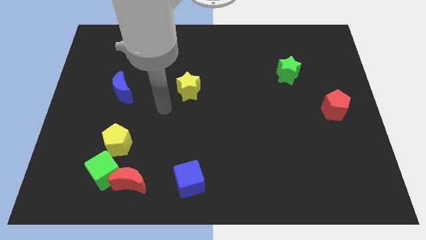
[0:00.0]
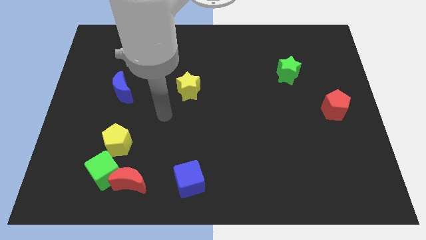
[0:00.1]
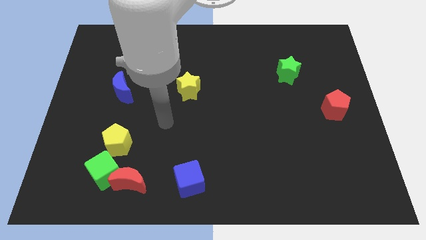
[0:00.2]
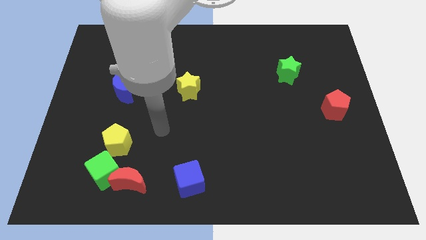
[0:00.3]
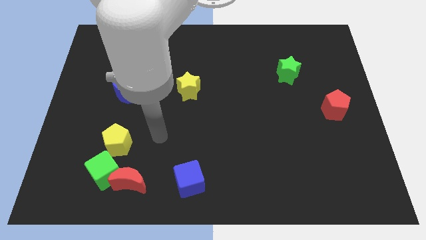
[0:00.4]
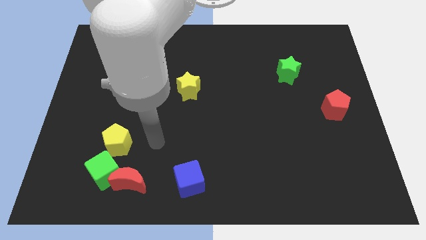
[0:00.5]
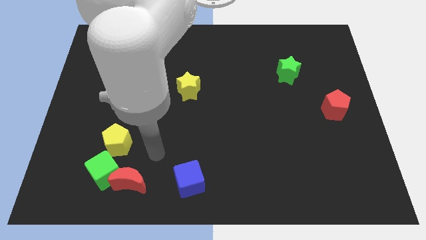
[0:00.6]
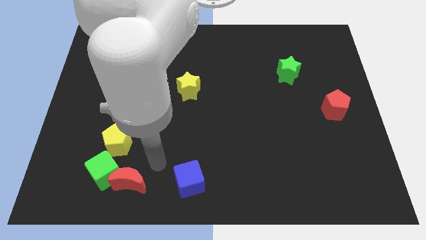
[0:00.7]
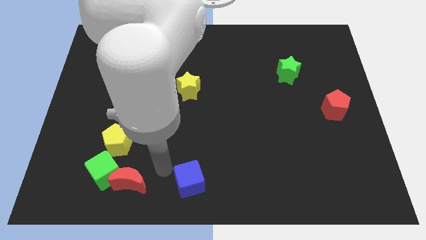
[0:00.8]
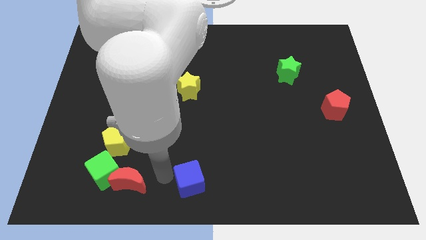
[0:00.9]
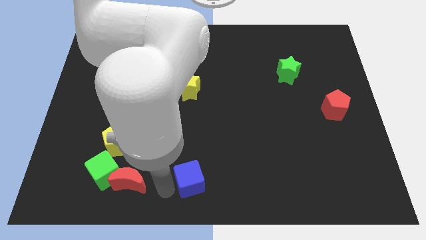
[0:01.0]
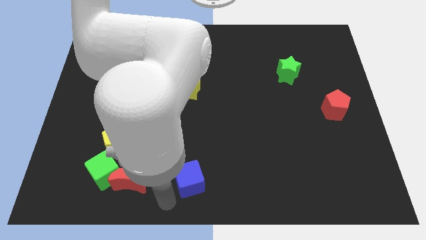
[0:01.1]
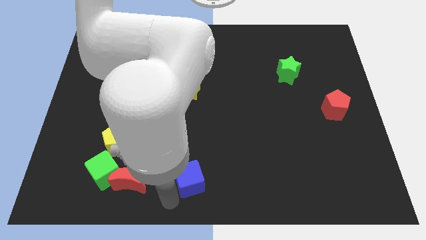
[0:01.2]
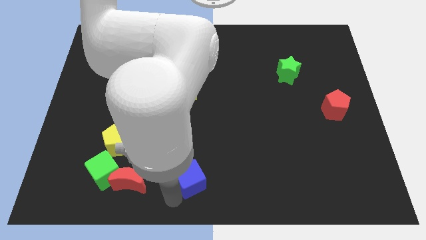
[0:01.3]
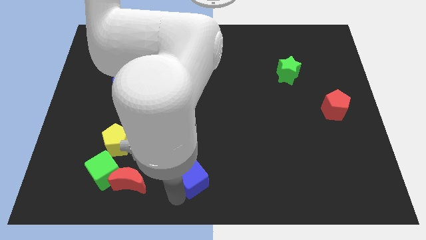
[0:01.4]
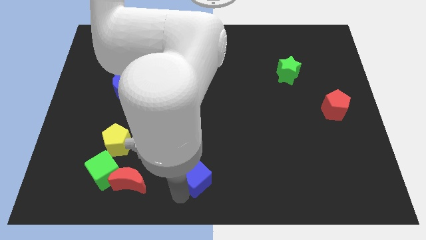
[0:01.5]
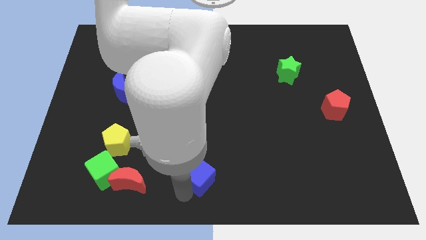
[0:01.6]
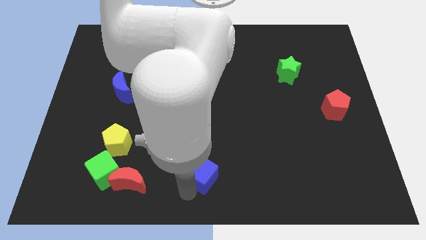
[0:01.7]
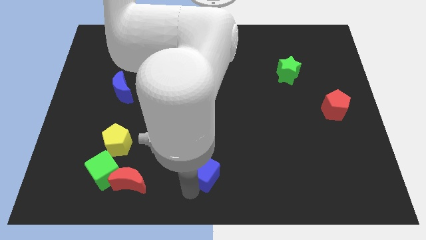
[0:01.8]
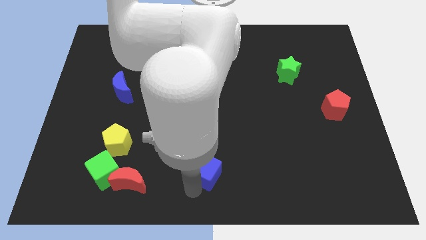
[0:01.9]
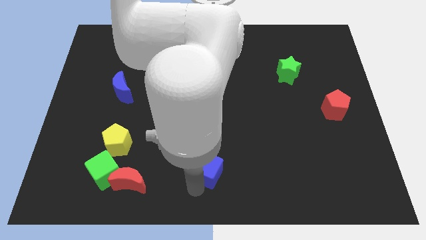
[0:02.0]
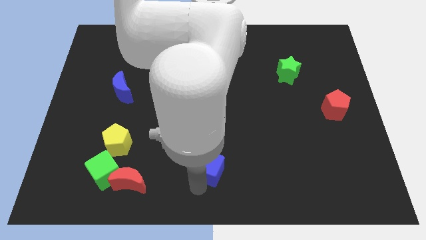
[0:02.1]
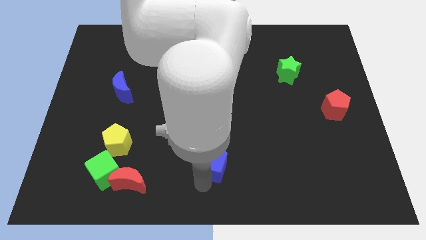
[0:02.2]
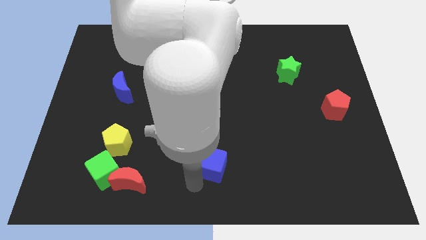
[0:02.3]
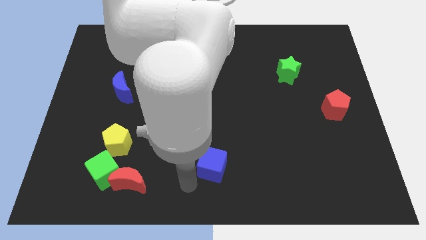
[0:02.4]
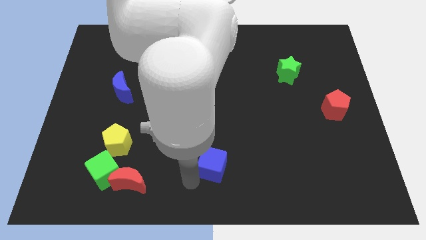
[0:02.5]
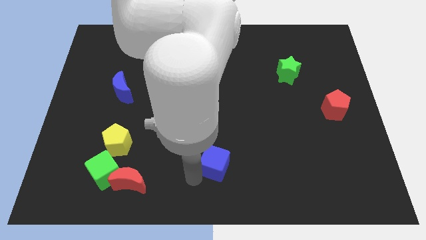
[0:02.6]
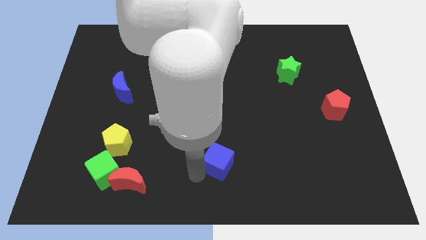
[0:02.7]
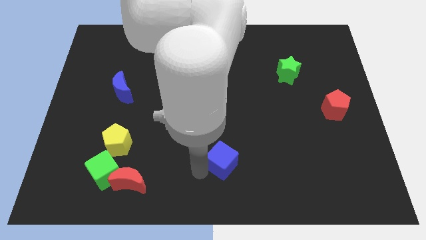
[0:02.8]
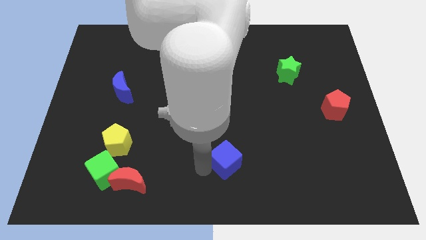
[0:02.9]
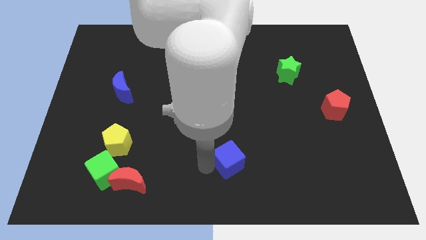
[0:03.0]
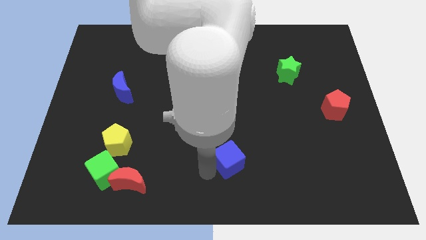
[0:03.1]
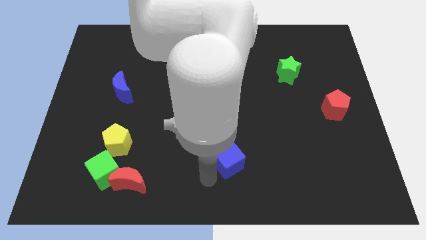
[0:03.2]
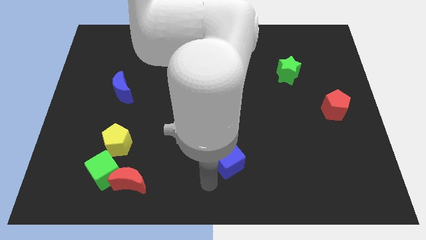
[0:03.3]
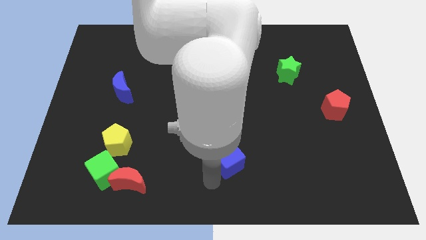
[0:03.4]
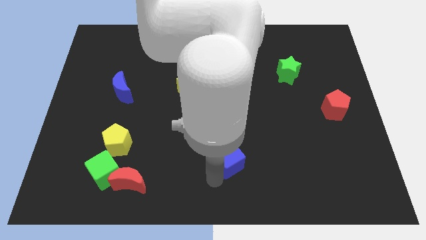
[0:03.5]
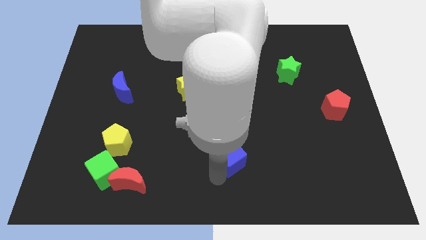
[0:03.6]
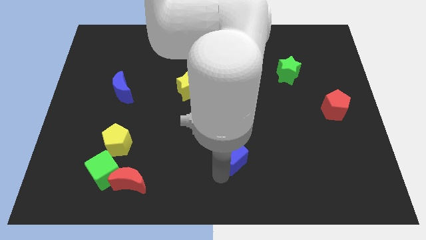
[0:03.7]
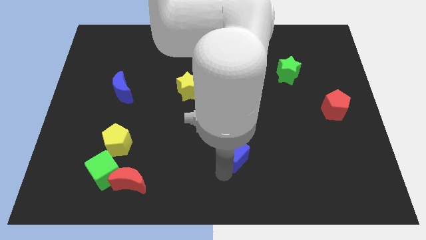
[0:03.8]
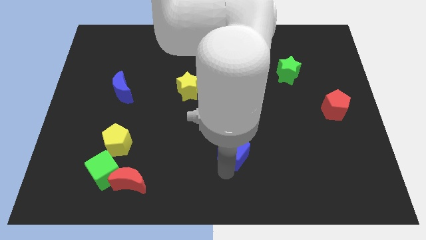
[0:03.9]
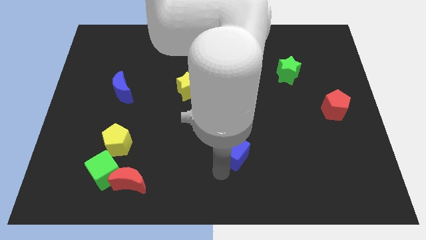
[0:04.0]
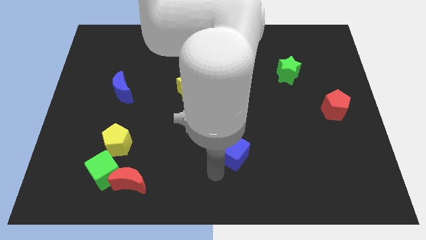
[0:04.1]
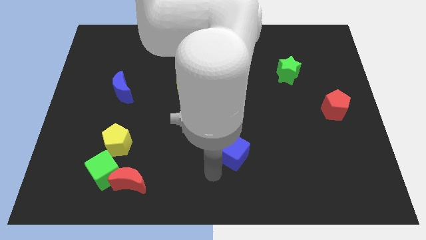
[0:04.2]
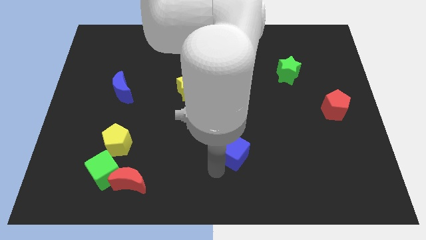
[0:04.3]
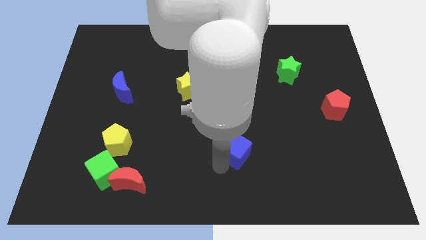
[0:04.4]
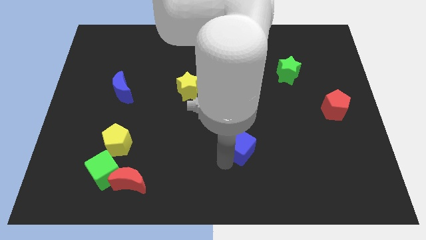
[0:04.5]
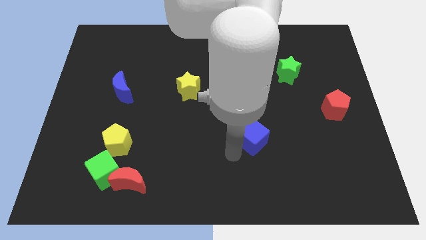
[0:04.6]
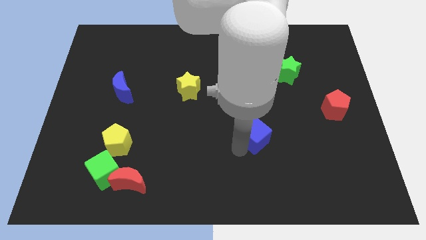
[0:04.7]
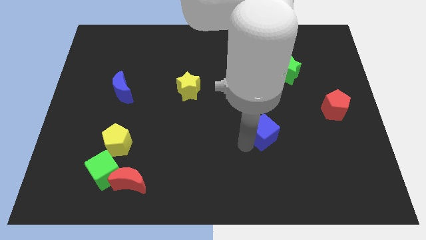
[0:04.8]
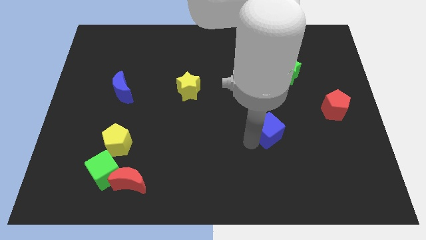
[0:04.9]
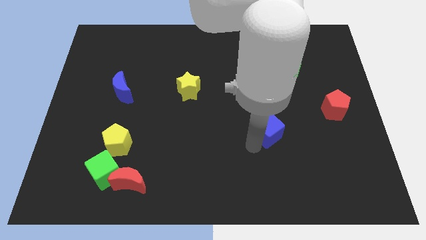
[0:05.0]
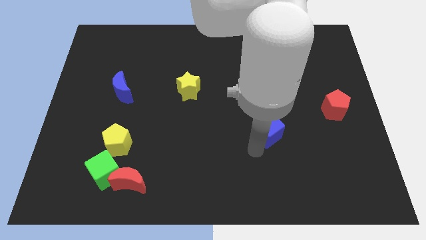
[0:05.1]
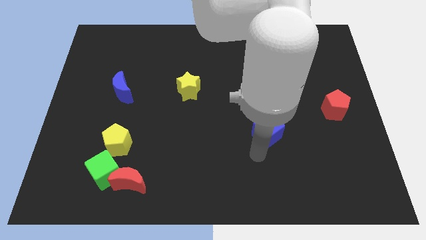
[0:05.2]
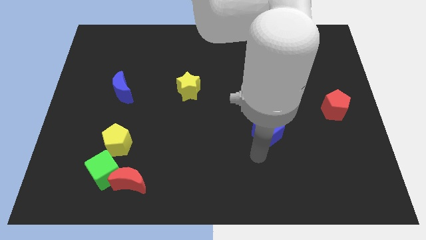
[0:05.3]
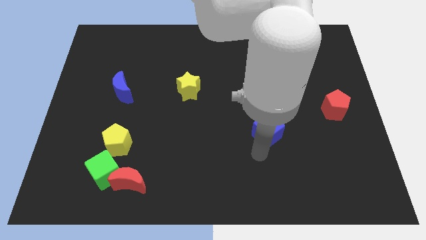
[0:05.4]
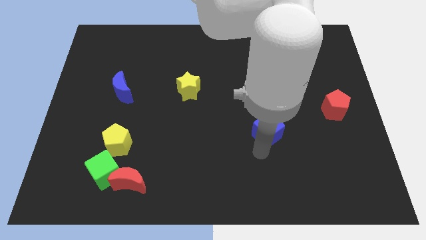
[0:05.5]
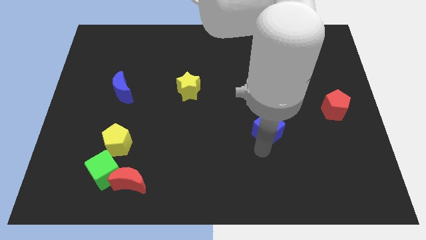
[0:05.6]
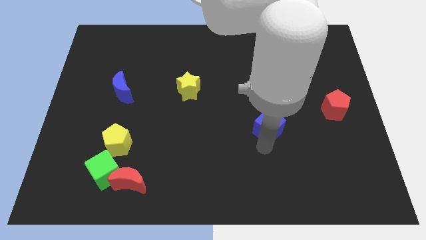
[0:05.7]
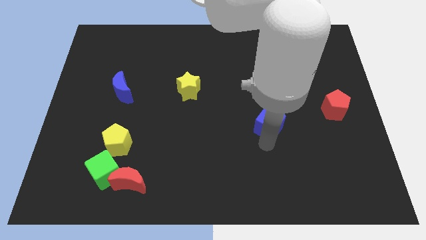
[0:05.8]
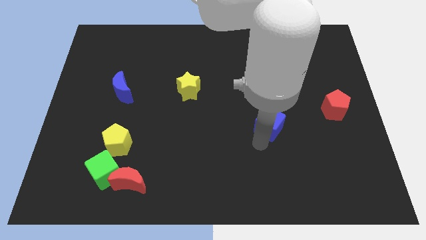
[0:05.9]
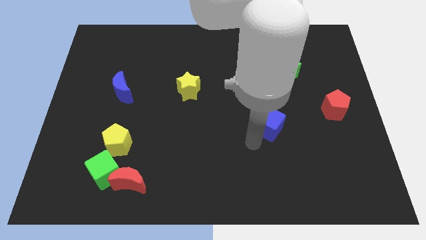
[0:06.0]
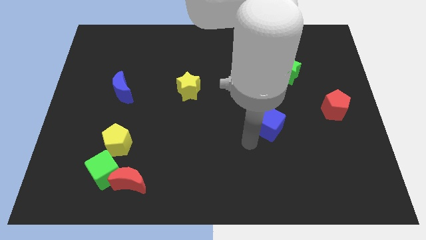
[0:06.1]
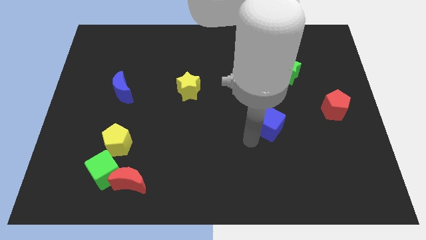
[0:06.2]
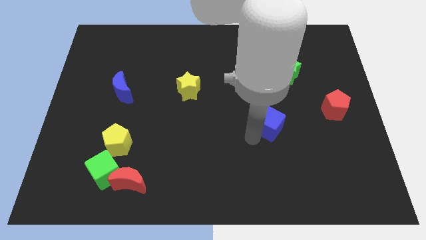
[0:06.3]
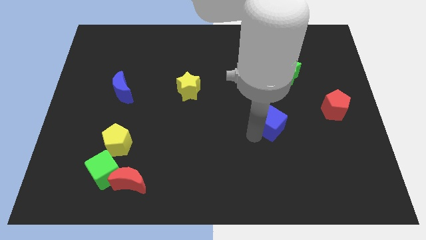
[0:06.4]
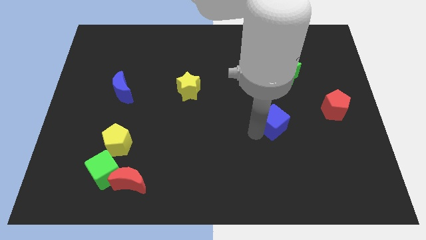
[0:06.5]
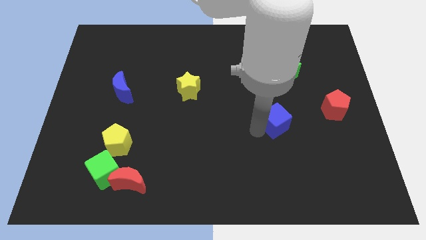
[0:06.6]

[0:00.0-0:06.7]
push the blue cube left of the red pentagon
